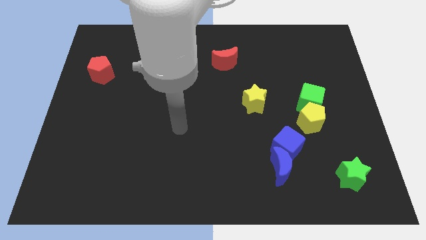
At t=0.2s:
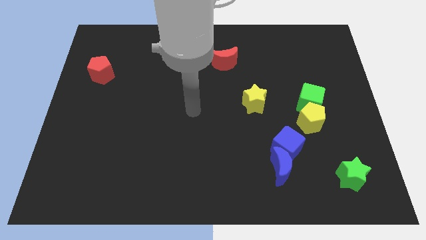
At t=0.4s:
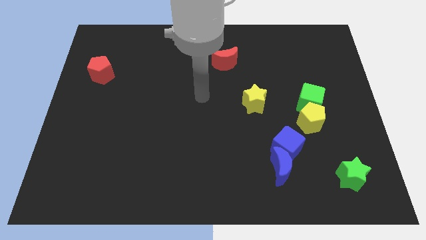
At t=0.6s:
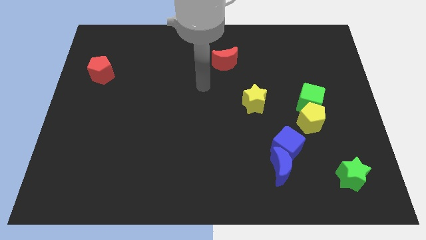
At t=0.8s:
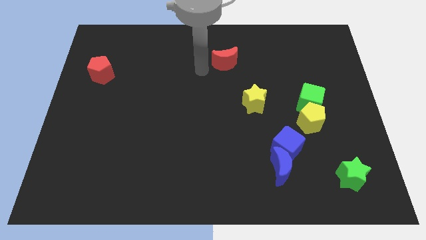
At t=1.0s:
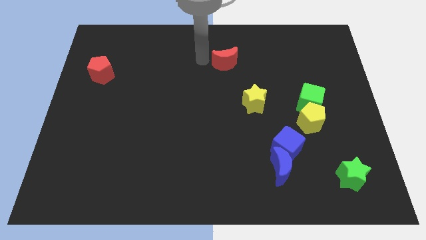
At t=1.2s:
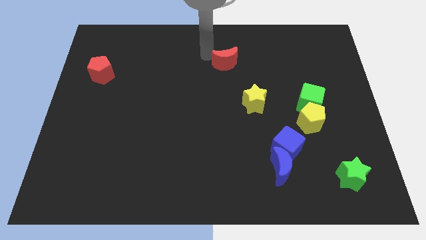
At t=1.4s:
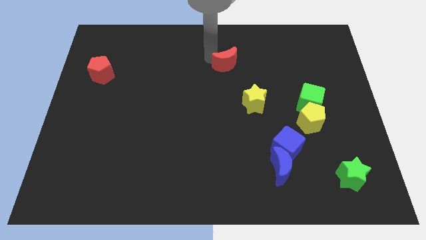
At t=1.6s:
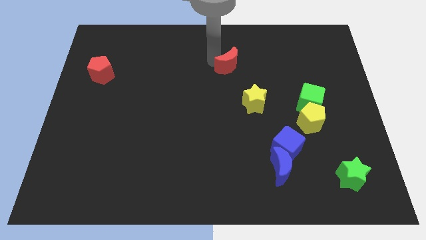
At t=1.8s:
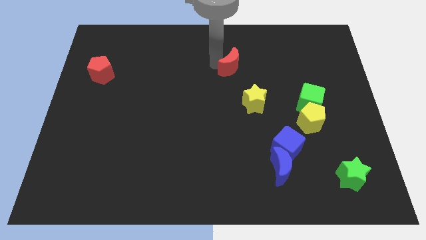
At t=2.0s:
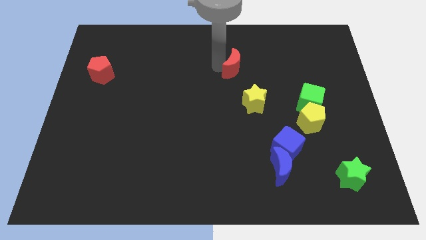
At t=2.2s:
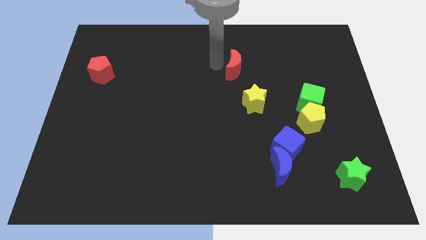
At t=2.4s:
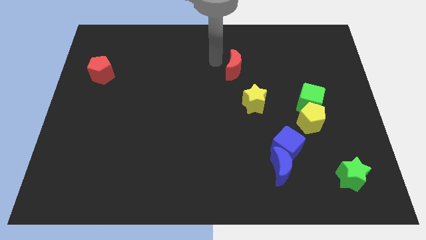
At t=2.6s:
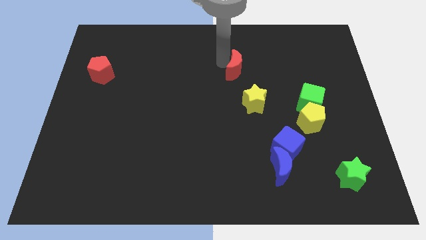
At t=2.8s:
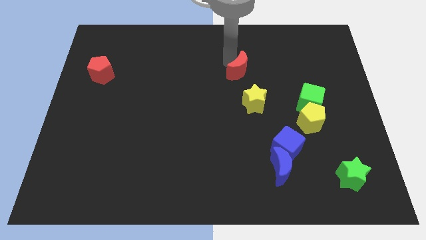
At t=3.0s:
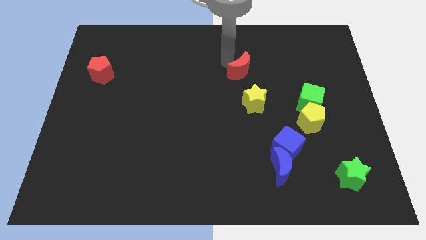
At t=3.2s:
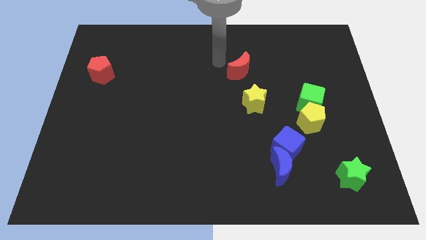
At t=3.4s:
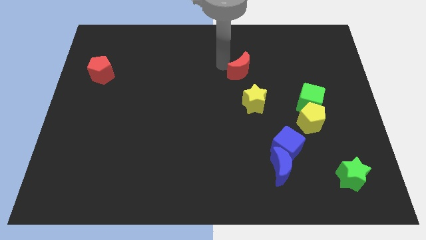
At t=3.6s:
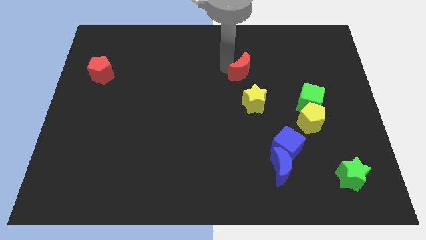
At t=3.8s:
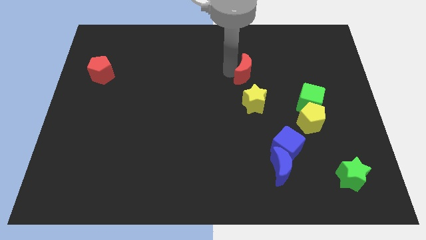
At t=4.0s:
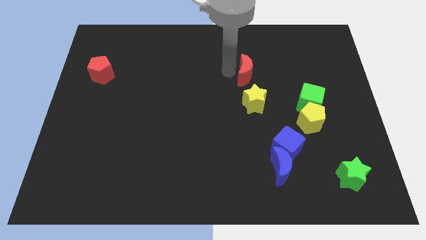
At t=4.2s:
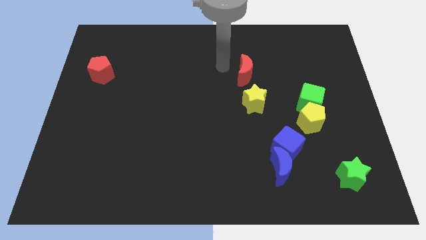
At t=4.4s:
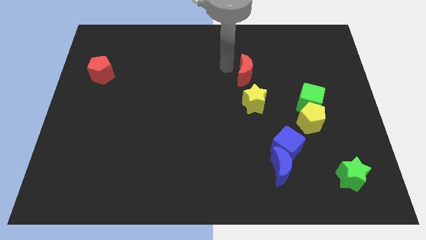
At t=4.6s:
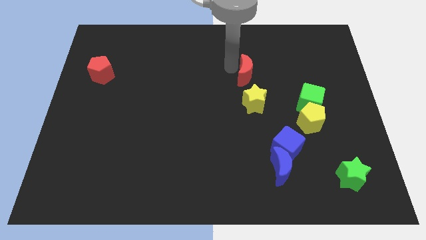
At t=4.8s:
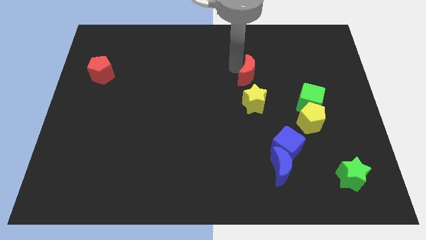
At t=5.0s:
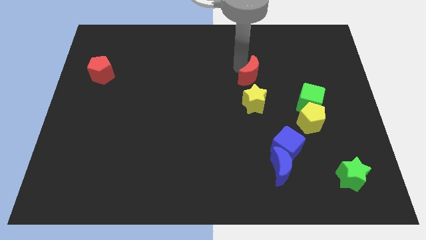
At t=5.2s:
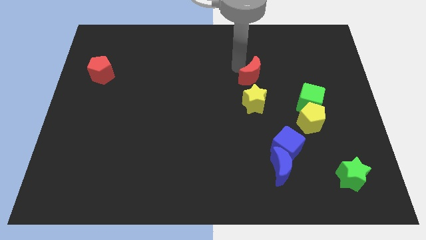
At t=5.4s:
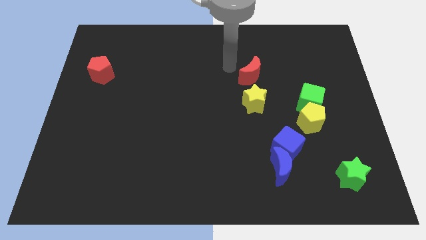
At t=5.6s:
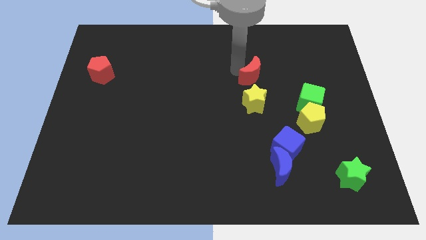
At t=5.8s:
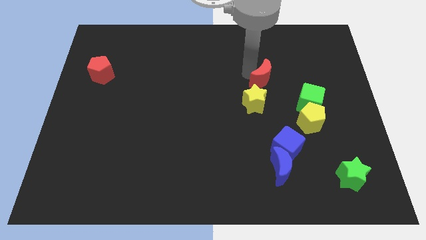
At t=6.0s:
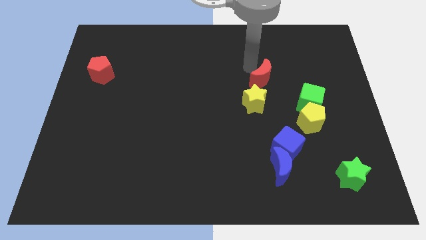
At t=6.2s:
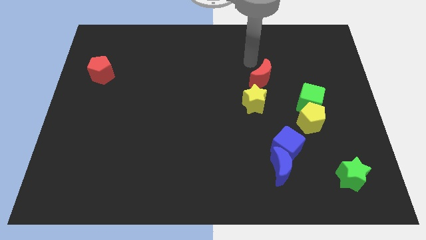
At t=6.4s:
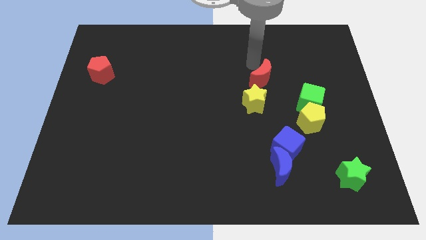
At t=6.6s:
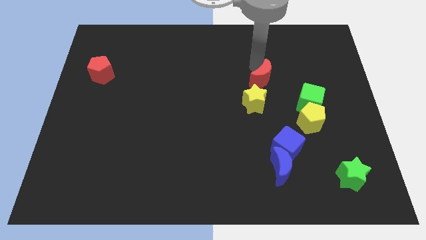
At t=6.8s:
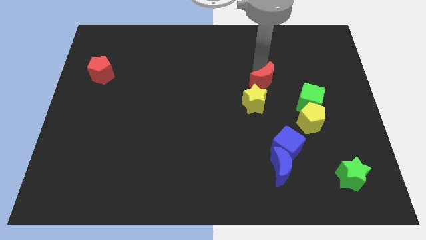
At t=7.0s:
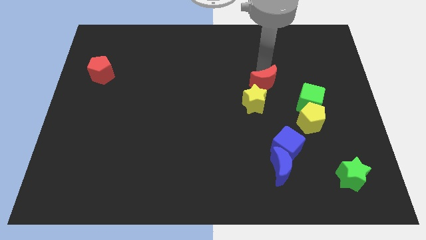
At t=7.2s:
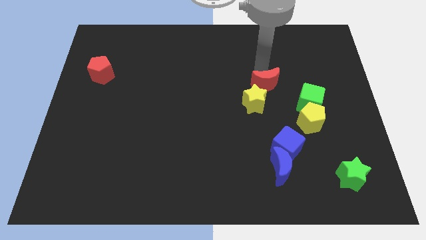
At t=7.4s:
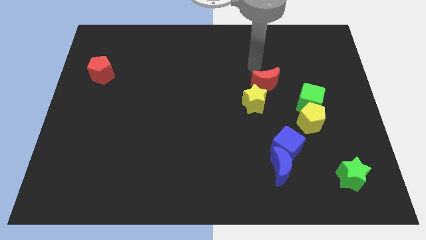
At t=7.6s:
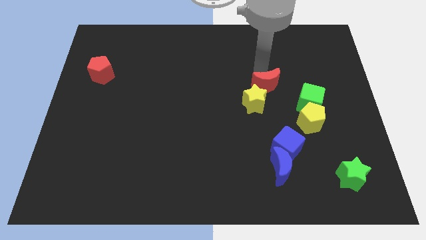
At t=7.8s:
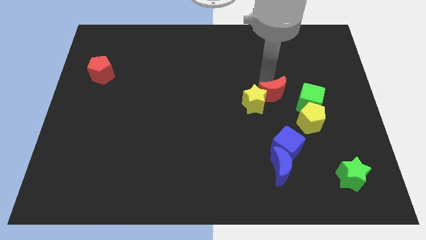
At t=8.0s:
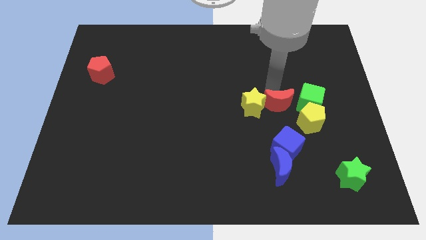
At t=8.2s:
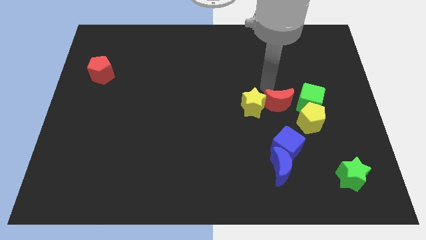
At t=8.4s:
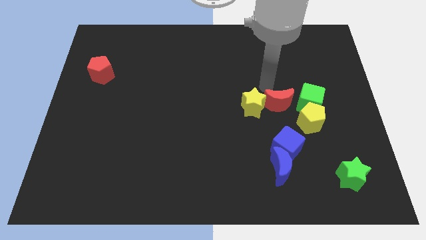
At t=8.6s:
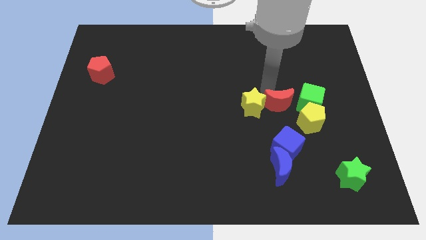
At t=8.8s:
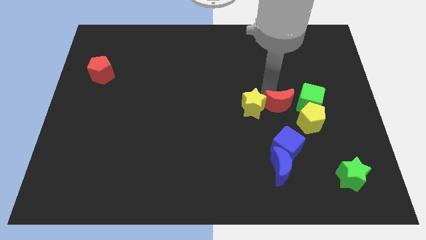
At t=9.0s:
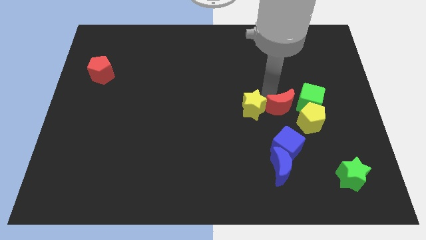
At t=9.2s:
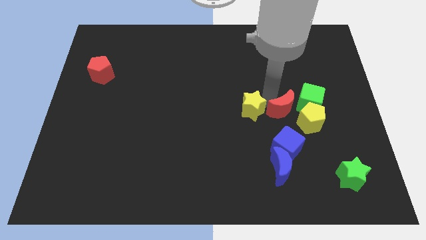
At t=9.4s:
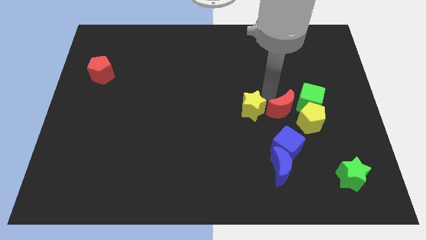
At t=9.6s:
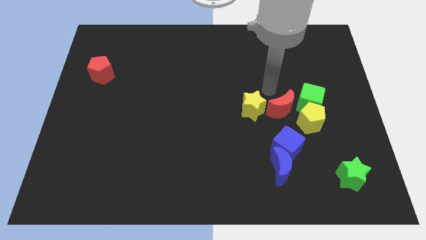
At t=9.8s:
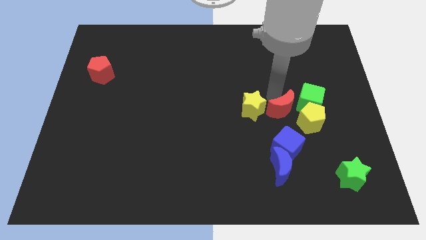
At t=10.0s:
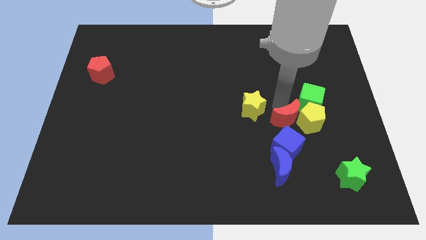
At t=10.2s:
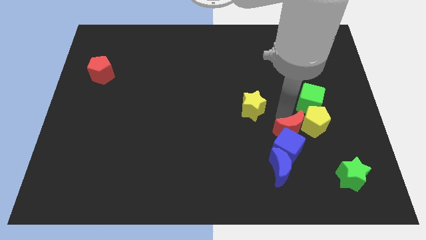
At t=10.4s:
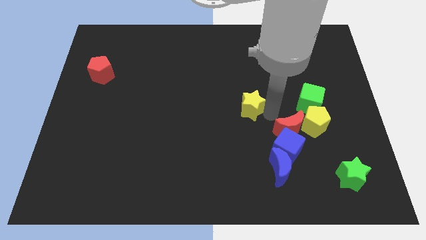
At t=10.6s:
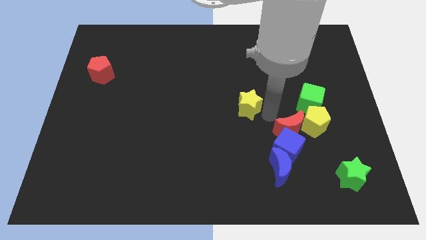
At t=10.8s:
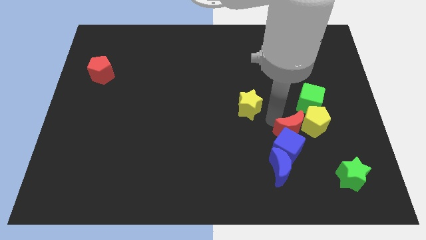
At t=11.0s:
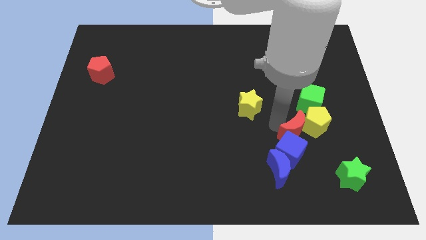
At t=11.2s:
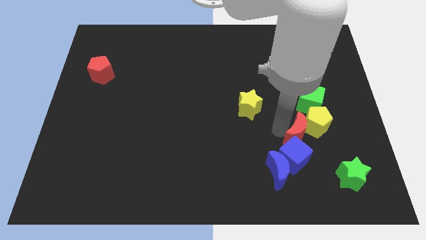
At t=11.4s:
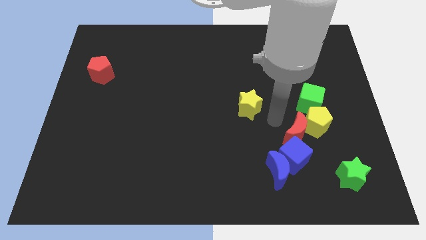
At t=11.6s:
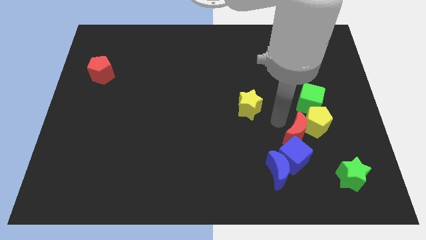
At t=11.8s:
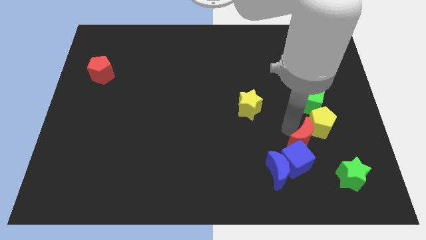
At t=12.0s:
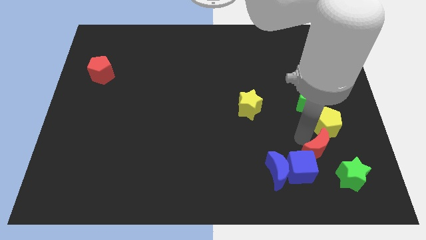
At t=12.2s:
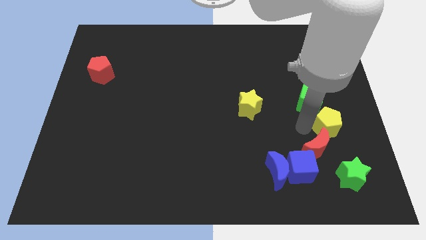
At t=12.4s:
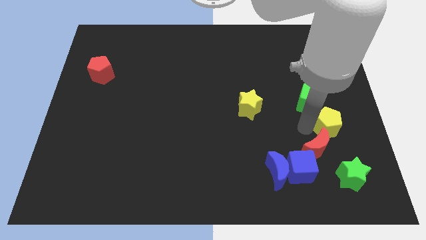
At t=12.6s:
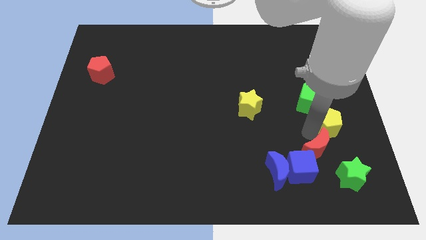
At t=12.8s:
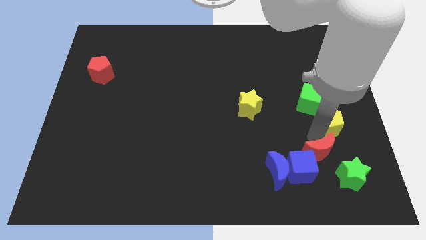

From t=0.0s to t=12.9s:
push the red moon to the right of the blue moon

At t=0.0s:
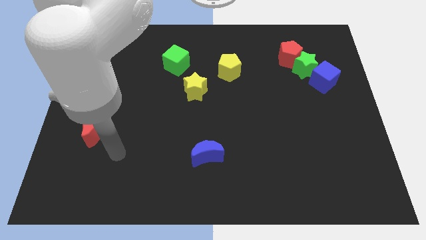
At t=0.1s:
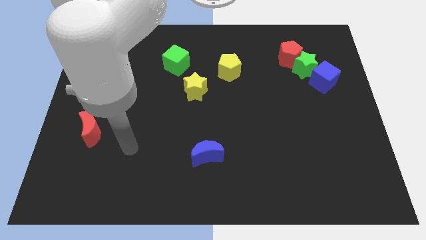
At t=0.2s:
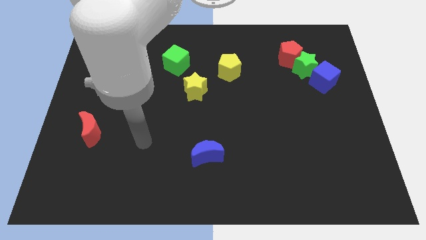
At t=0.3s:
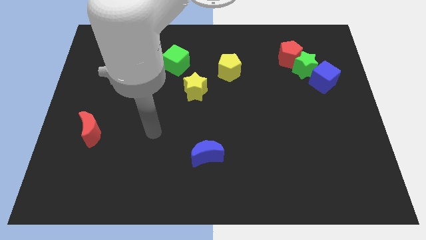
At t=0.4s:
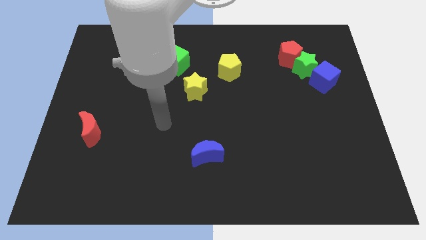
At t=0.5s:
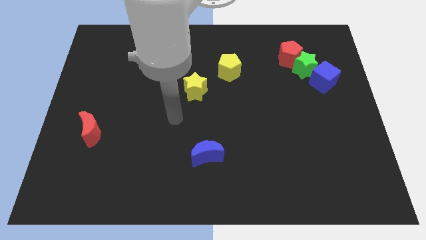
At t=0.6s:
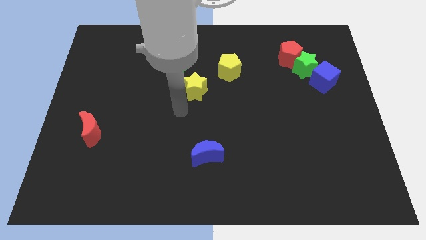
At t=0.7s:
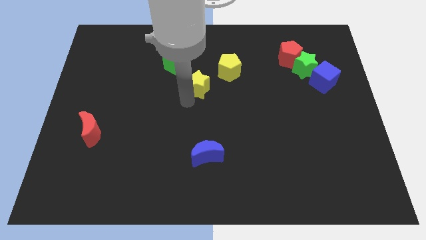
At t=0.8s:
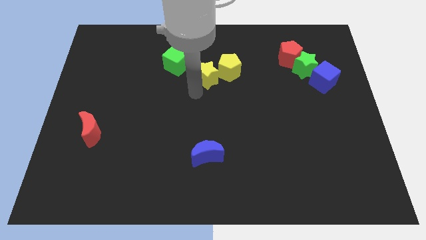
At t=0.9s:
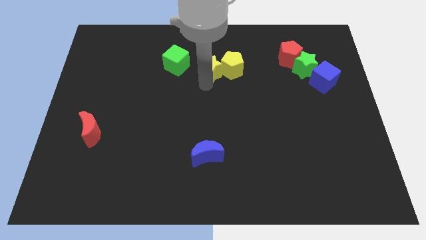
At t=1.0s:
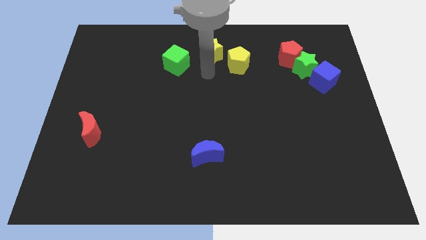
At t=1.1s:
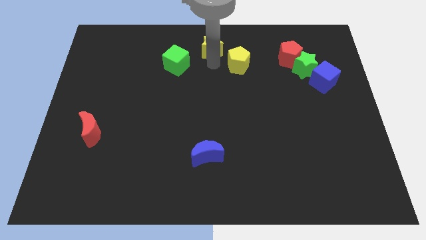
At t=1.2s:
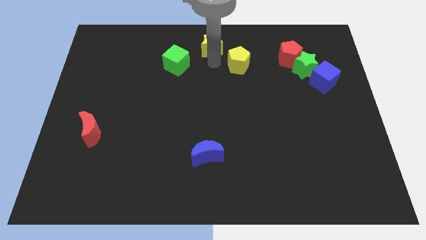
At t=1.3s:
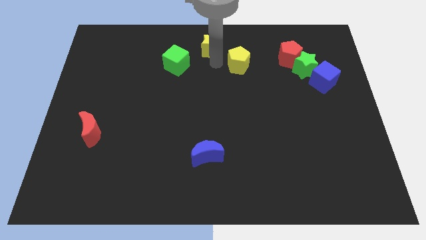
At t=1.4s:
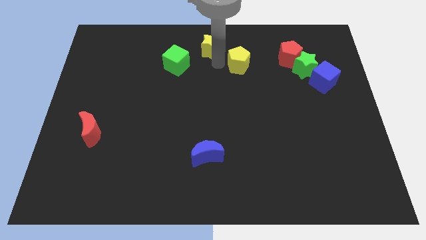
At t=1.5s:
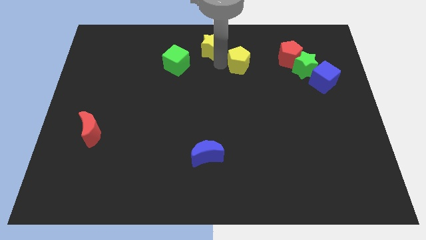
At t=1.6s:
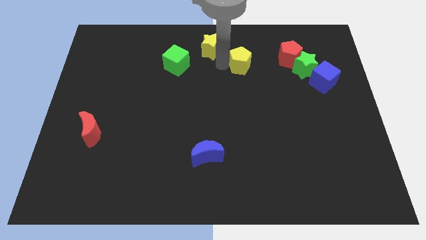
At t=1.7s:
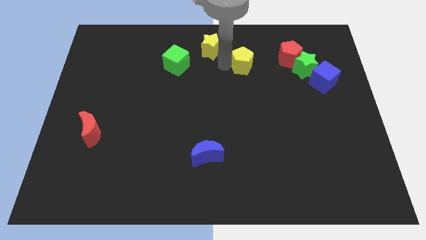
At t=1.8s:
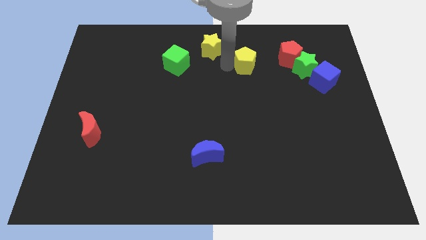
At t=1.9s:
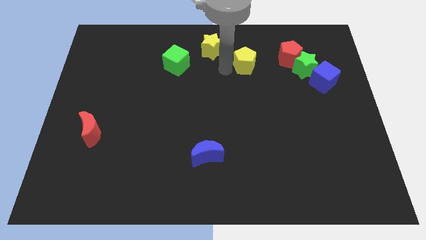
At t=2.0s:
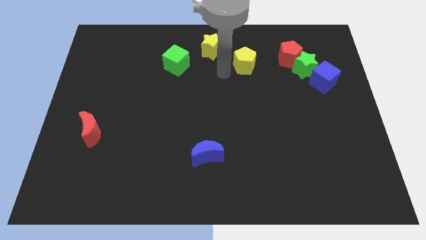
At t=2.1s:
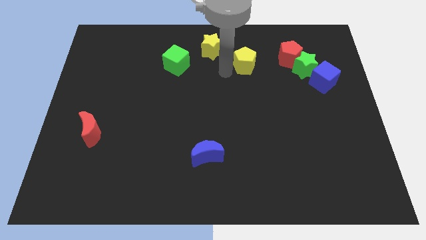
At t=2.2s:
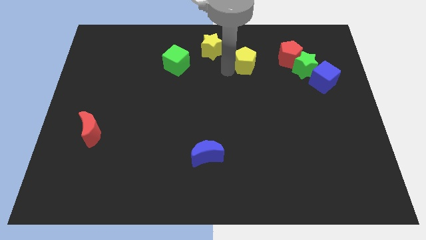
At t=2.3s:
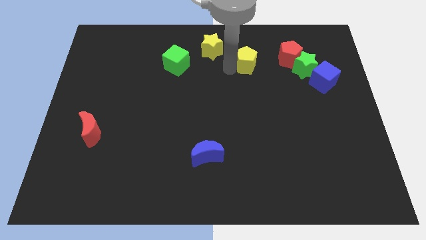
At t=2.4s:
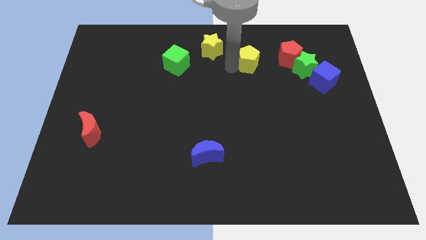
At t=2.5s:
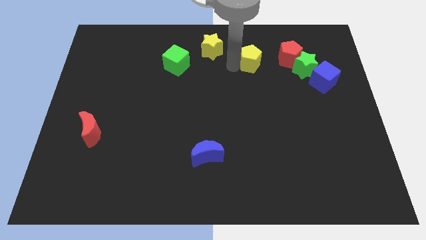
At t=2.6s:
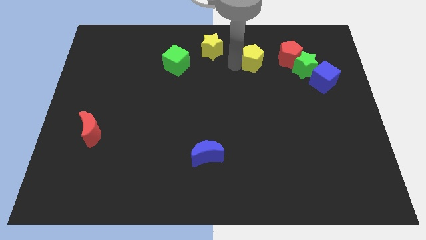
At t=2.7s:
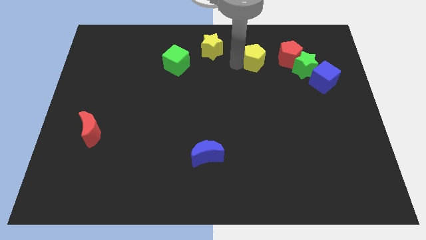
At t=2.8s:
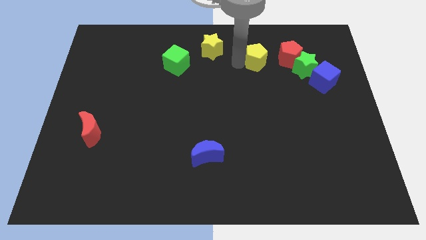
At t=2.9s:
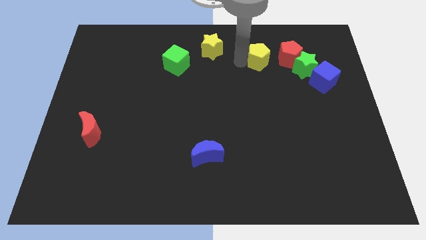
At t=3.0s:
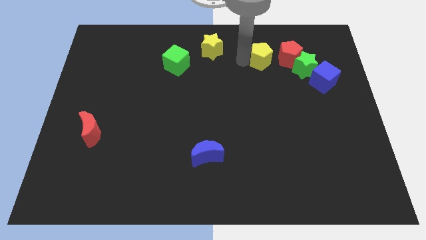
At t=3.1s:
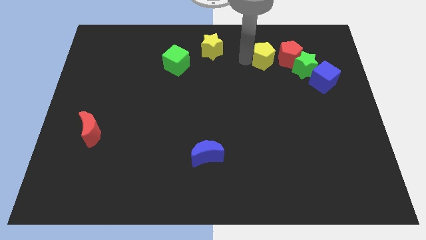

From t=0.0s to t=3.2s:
move the yellow pentagon diagonally up and to the left of the green star
